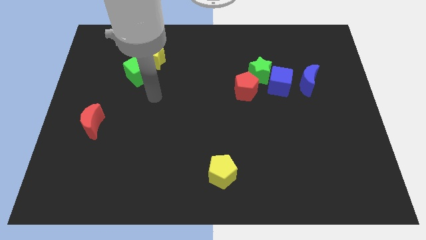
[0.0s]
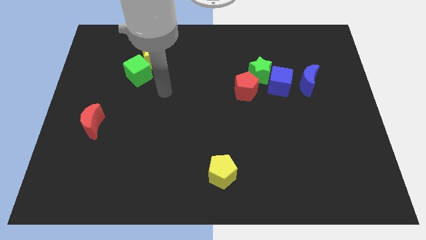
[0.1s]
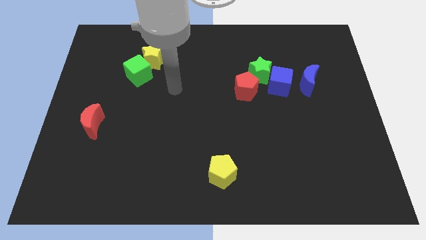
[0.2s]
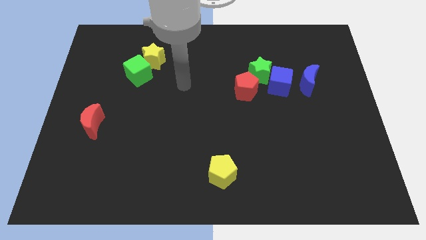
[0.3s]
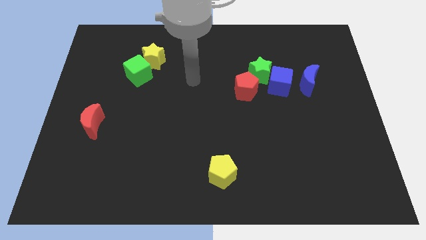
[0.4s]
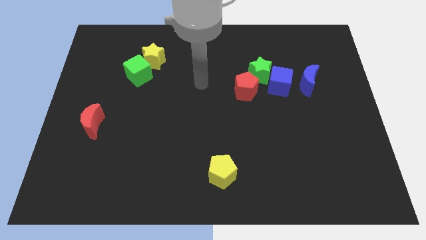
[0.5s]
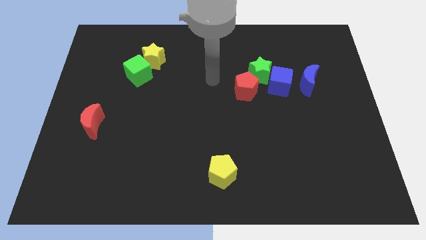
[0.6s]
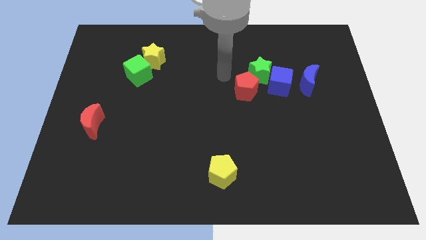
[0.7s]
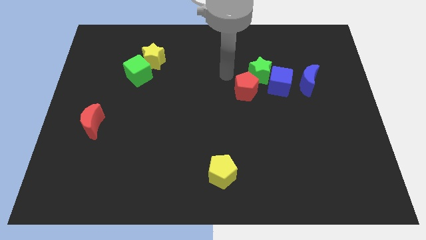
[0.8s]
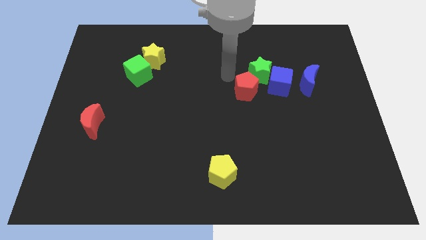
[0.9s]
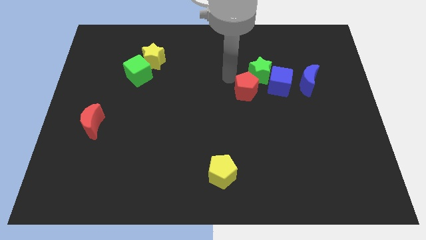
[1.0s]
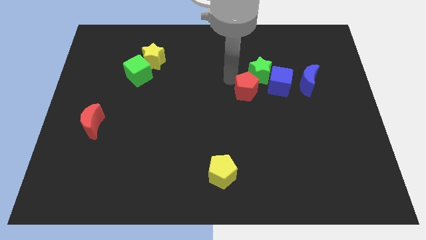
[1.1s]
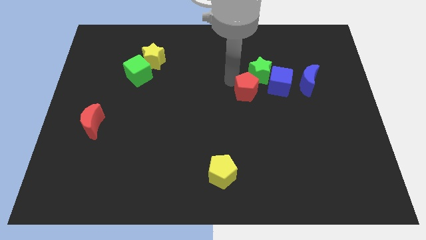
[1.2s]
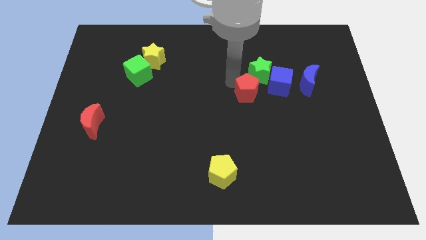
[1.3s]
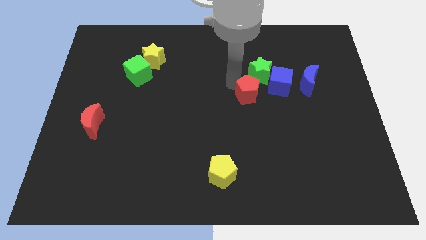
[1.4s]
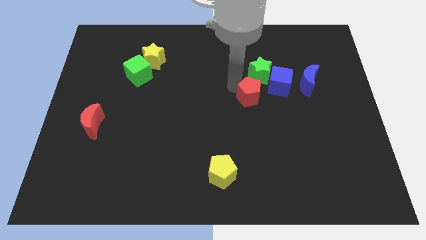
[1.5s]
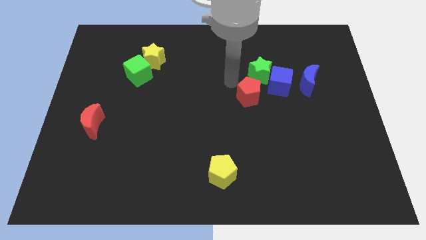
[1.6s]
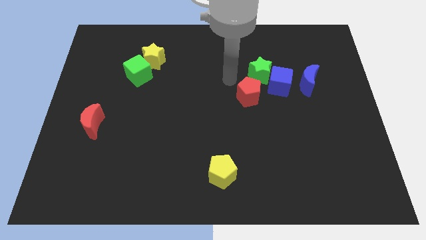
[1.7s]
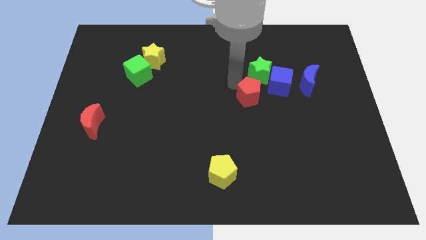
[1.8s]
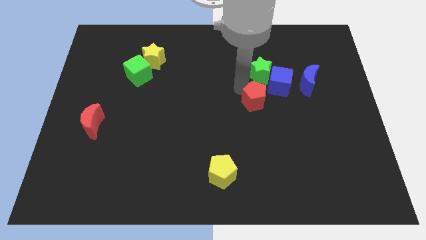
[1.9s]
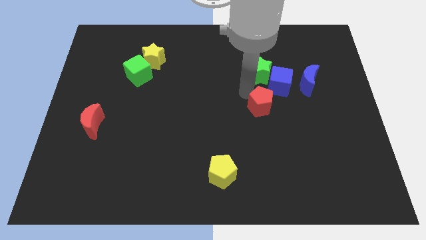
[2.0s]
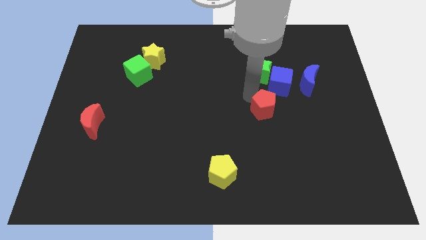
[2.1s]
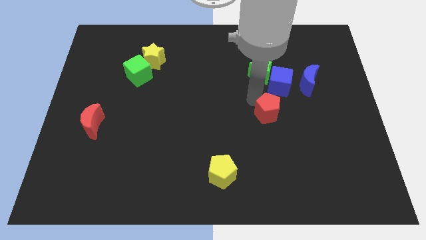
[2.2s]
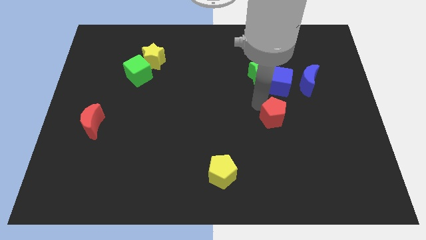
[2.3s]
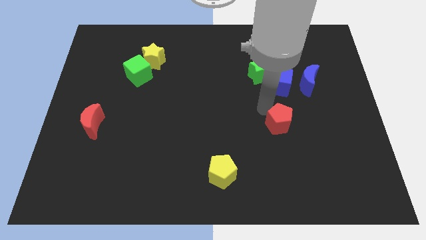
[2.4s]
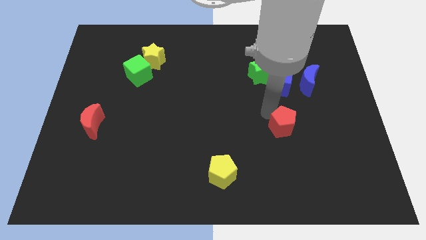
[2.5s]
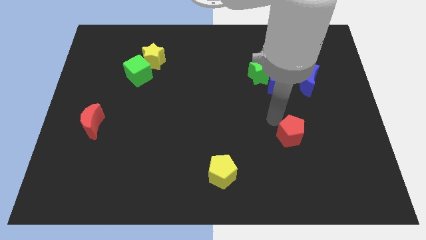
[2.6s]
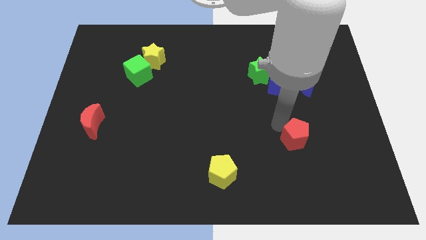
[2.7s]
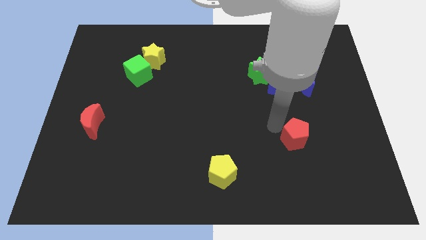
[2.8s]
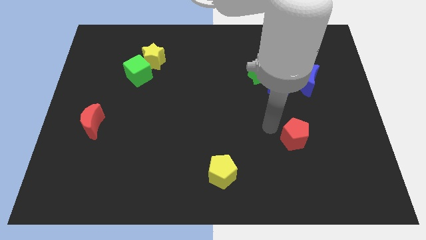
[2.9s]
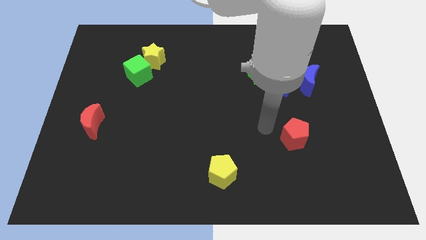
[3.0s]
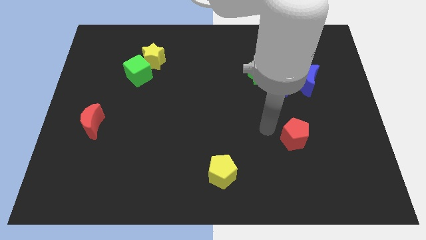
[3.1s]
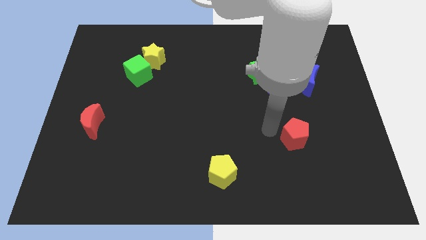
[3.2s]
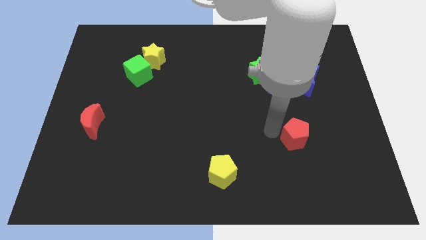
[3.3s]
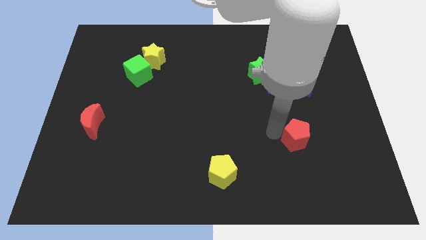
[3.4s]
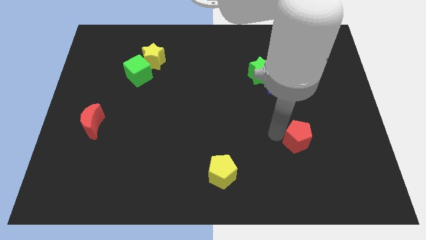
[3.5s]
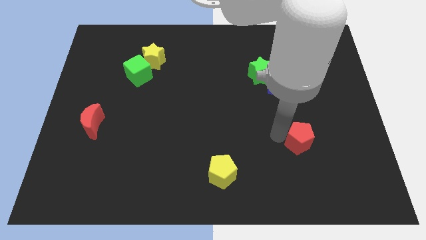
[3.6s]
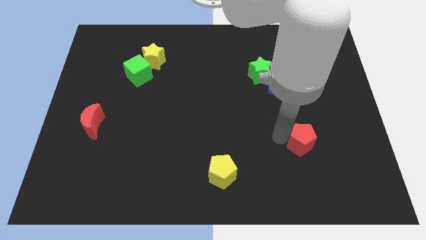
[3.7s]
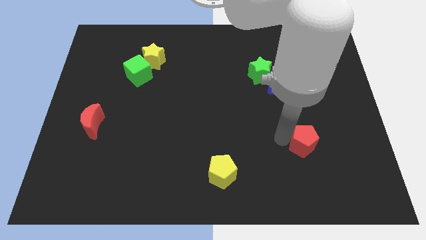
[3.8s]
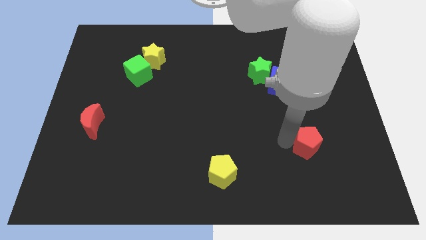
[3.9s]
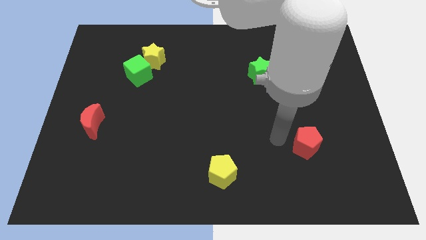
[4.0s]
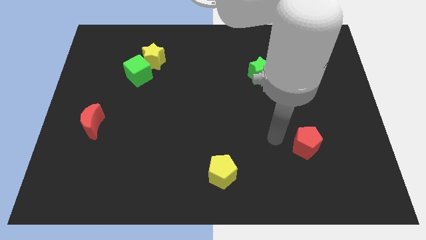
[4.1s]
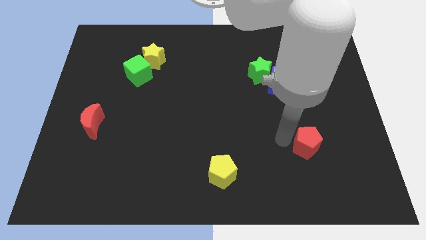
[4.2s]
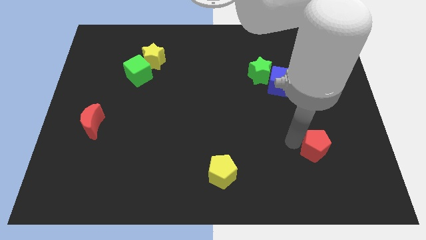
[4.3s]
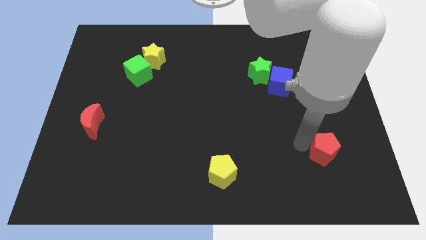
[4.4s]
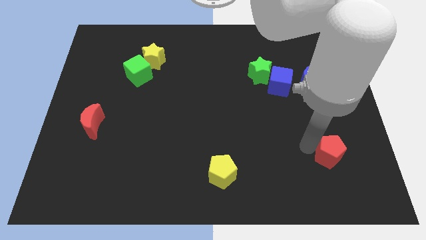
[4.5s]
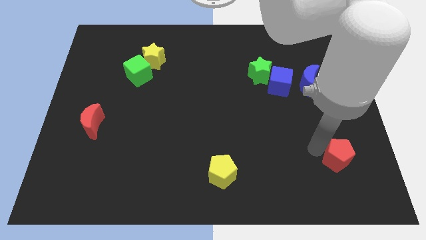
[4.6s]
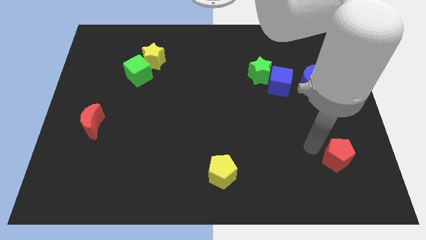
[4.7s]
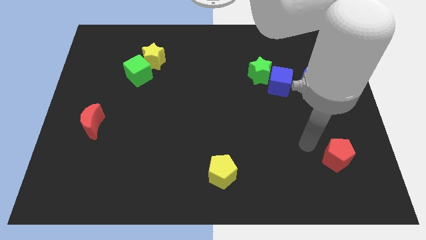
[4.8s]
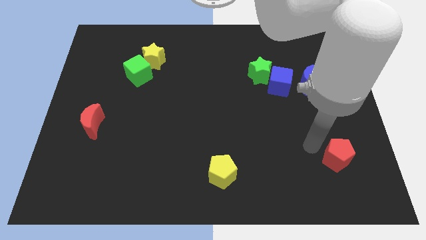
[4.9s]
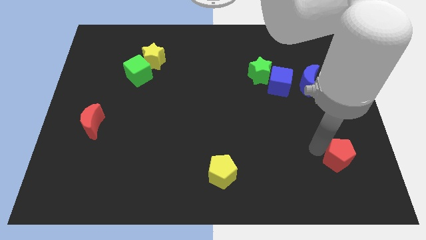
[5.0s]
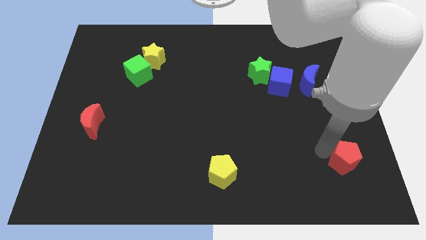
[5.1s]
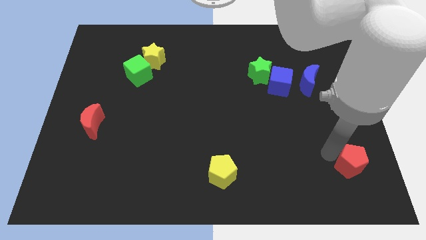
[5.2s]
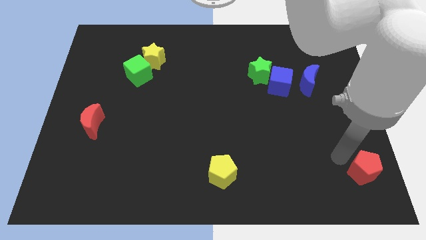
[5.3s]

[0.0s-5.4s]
put the red pentagon to the bottom right
